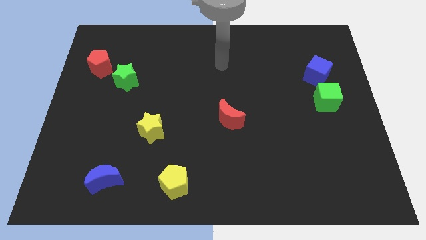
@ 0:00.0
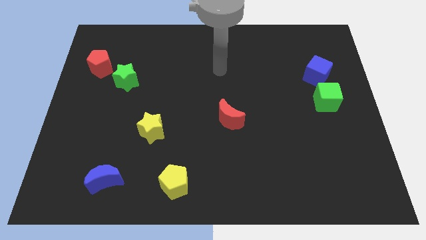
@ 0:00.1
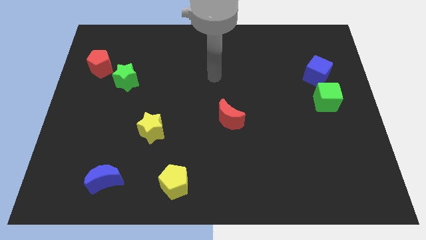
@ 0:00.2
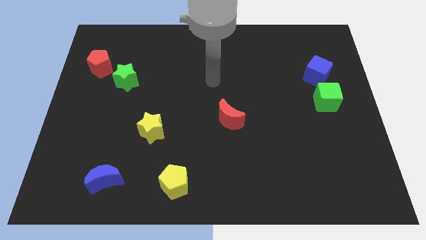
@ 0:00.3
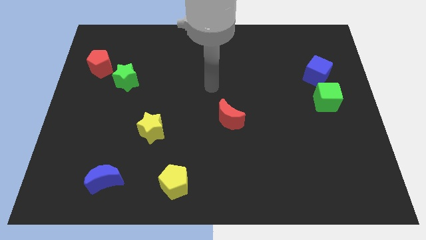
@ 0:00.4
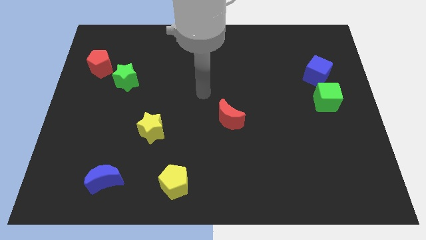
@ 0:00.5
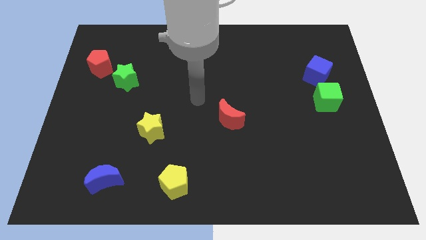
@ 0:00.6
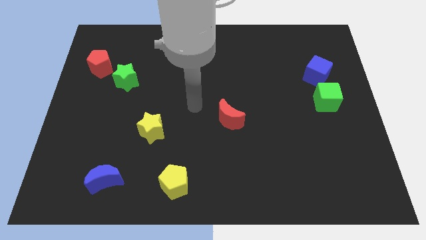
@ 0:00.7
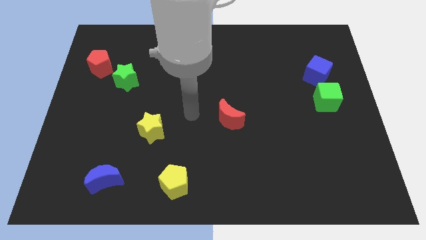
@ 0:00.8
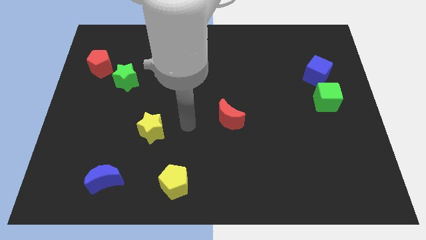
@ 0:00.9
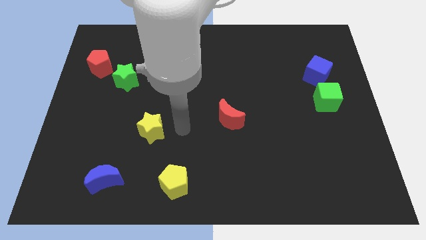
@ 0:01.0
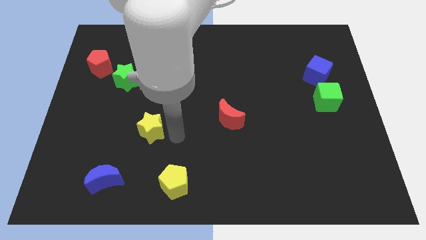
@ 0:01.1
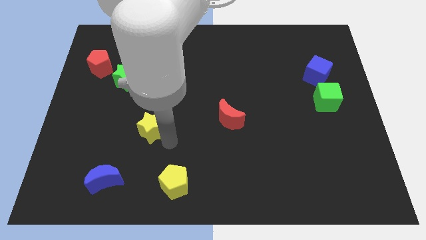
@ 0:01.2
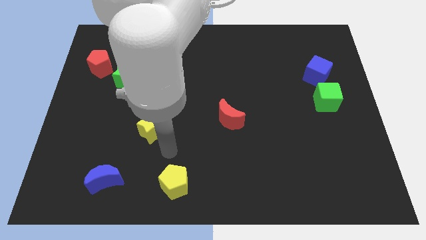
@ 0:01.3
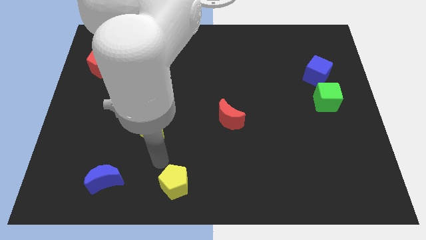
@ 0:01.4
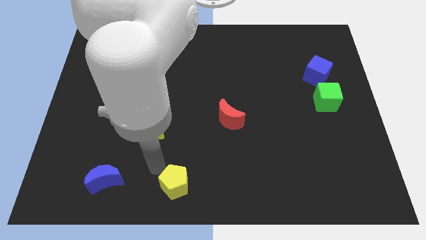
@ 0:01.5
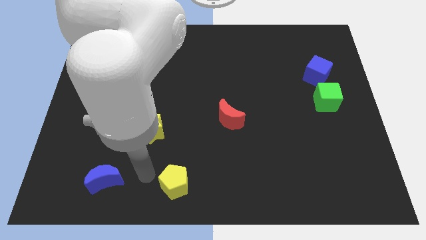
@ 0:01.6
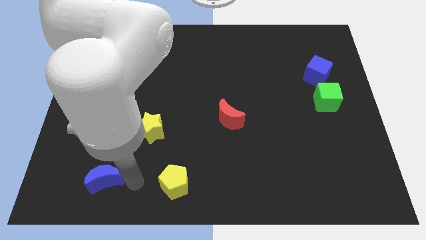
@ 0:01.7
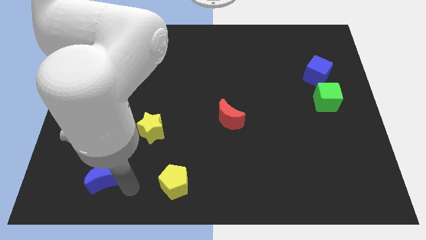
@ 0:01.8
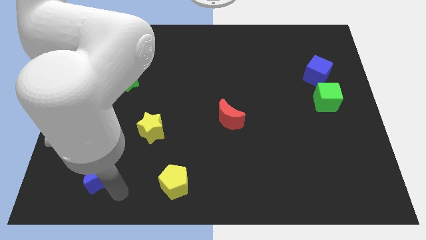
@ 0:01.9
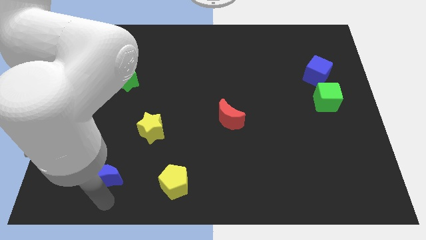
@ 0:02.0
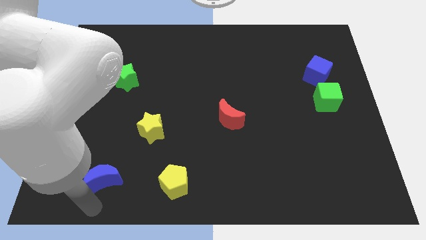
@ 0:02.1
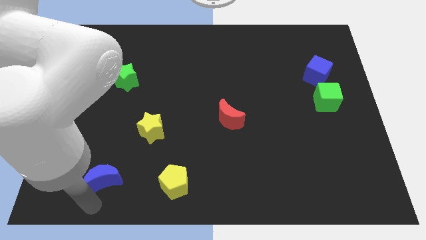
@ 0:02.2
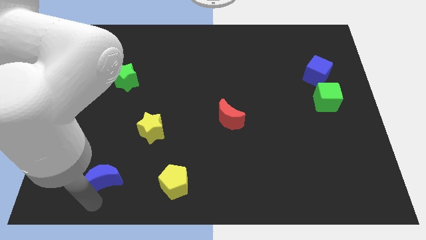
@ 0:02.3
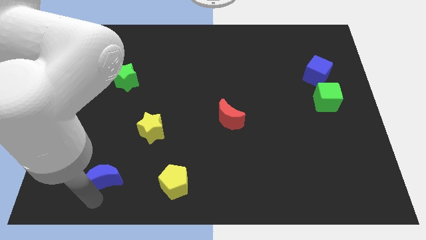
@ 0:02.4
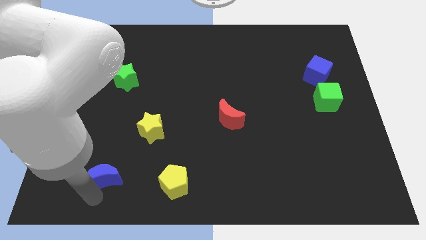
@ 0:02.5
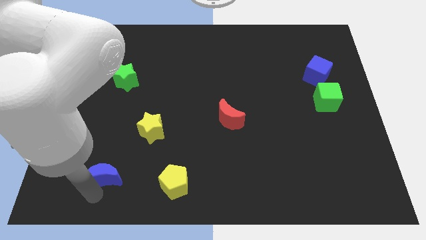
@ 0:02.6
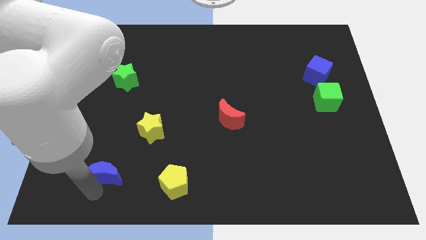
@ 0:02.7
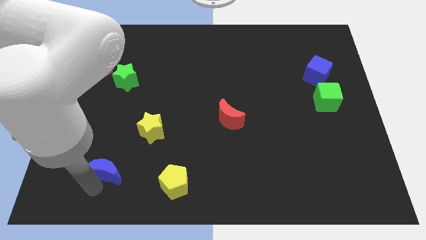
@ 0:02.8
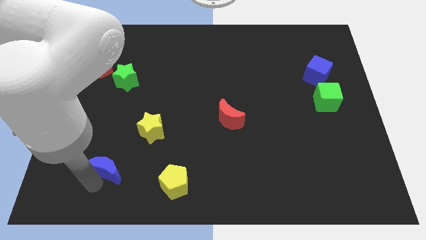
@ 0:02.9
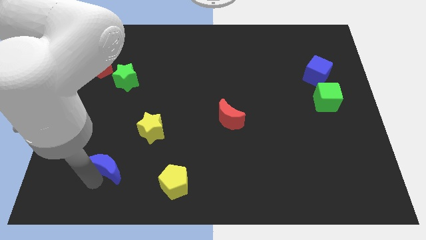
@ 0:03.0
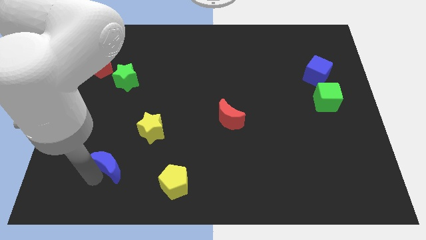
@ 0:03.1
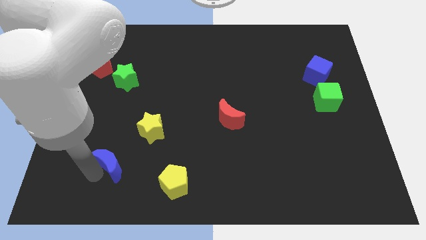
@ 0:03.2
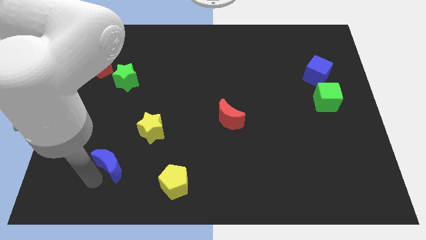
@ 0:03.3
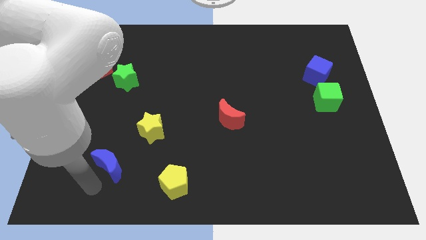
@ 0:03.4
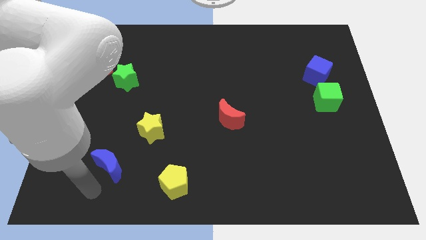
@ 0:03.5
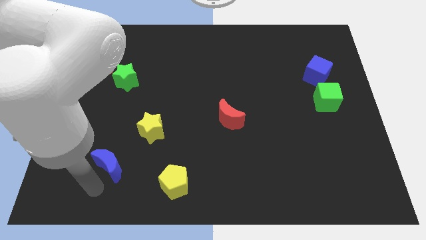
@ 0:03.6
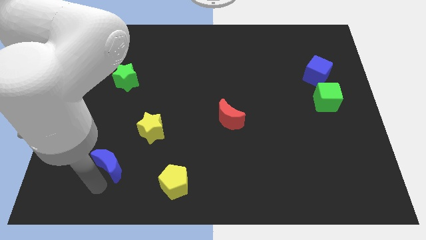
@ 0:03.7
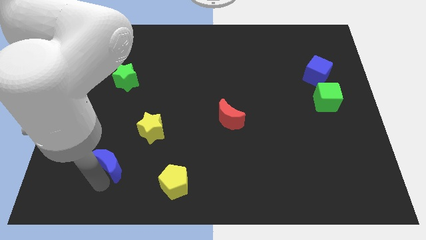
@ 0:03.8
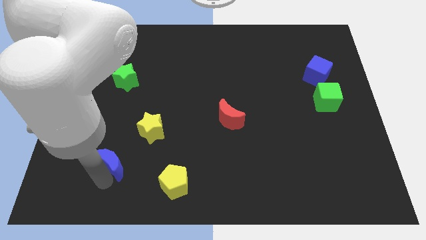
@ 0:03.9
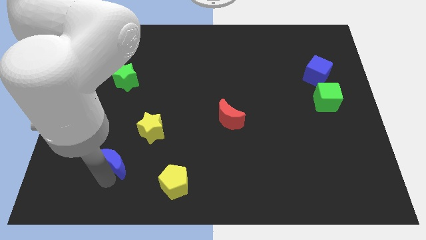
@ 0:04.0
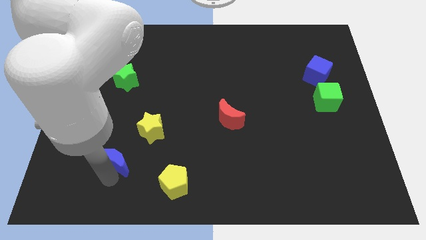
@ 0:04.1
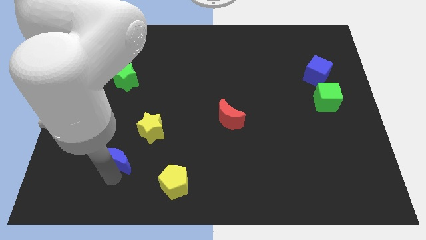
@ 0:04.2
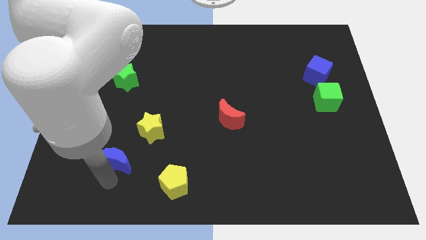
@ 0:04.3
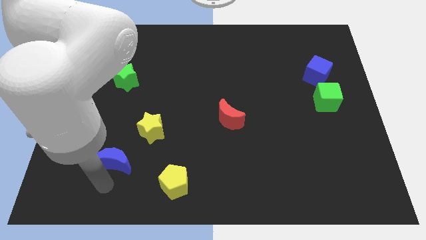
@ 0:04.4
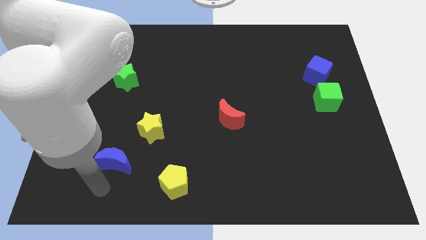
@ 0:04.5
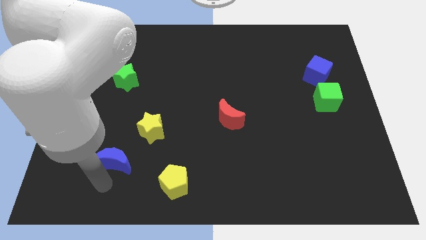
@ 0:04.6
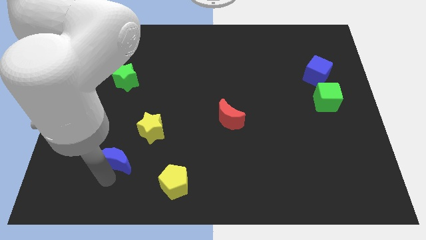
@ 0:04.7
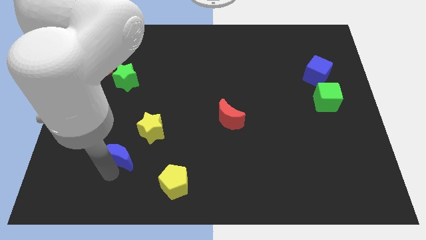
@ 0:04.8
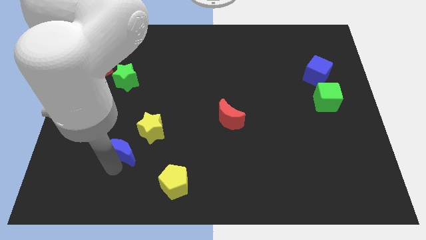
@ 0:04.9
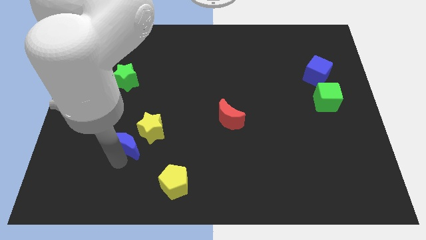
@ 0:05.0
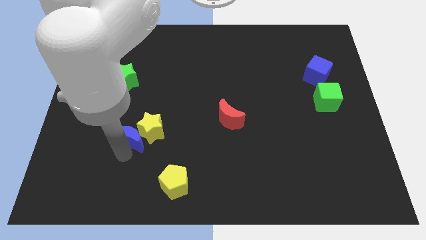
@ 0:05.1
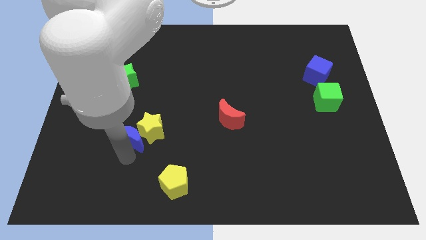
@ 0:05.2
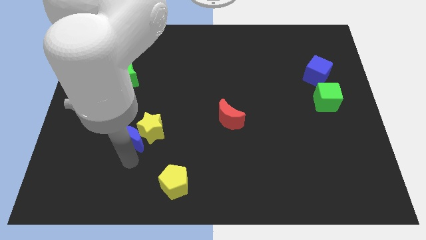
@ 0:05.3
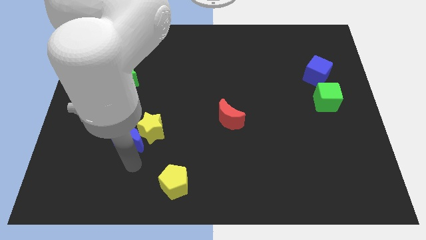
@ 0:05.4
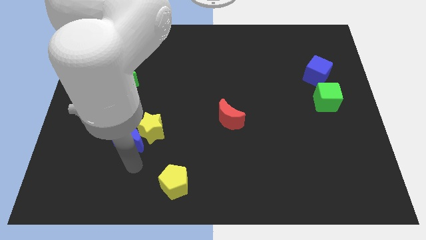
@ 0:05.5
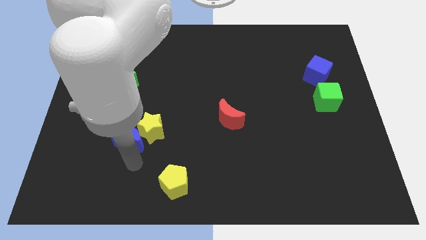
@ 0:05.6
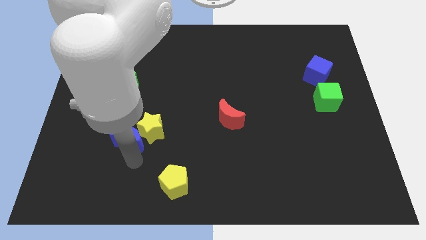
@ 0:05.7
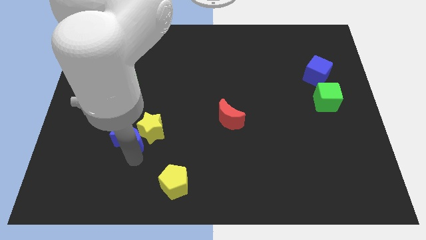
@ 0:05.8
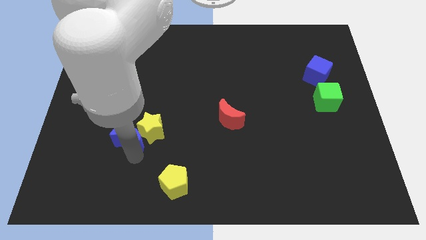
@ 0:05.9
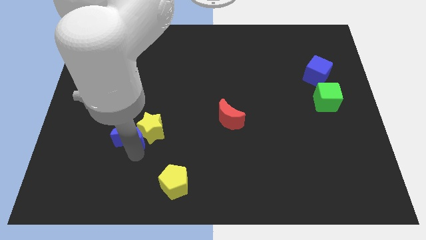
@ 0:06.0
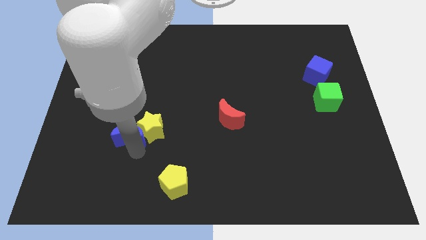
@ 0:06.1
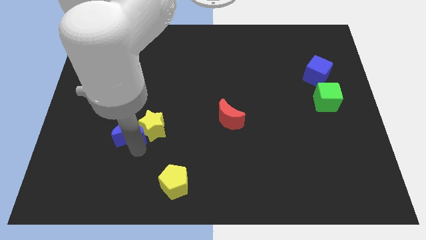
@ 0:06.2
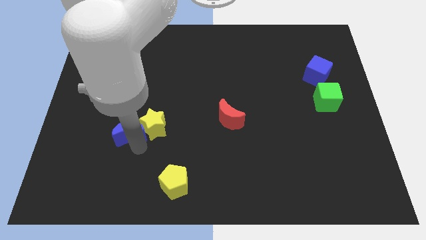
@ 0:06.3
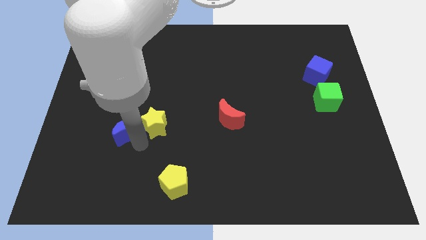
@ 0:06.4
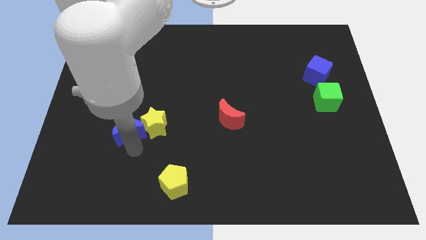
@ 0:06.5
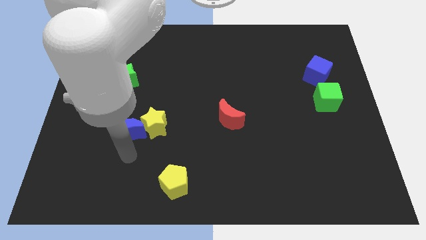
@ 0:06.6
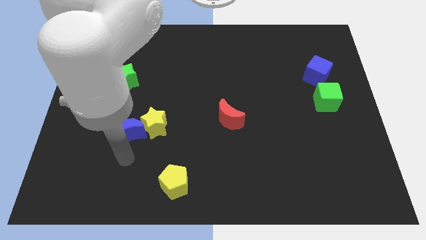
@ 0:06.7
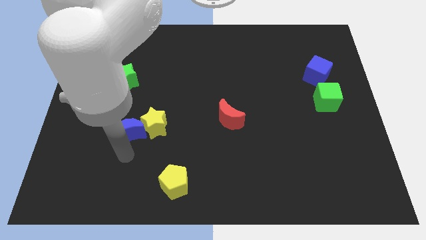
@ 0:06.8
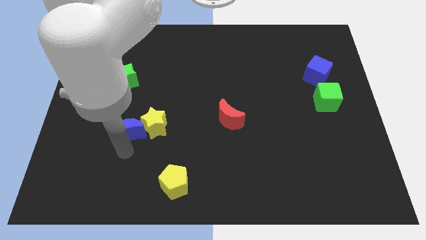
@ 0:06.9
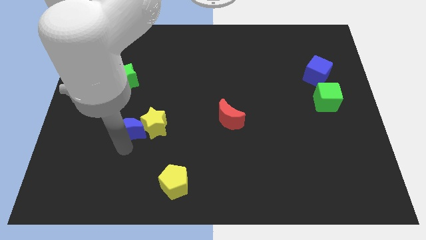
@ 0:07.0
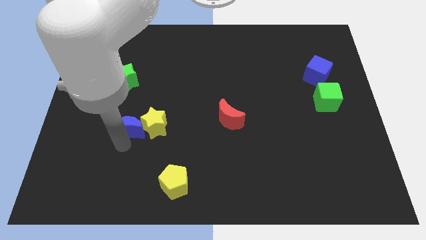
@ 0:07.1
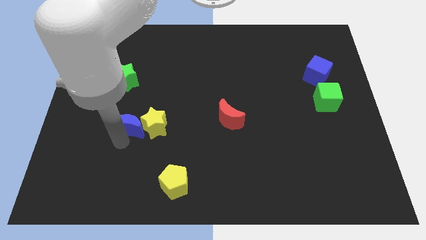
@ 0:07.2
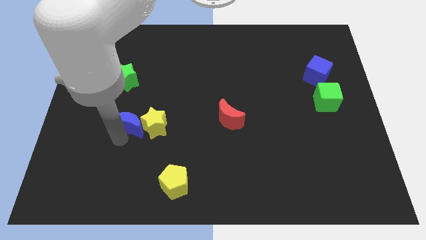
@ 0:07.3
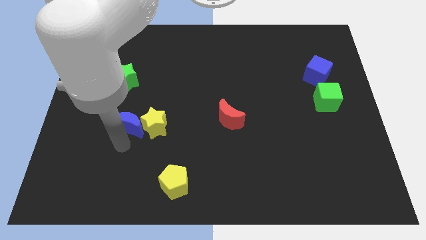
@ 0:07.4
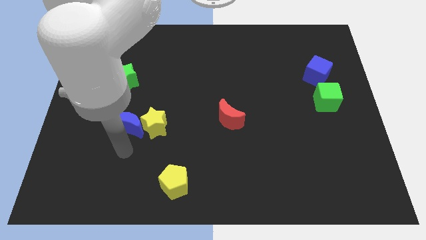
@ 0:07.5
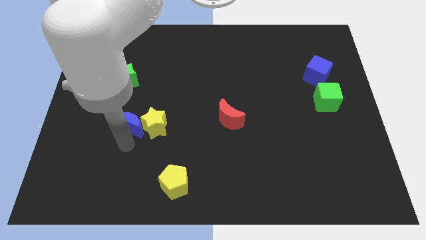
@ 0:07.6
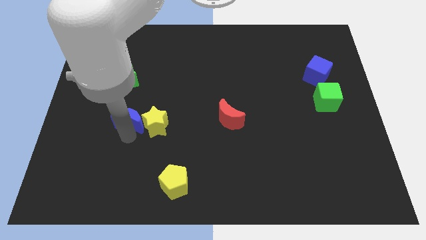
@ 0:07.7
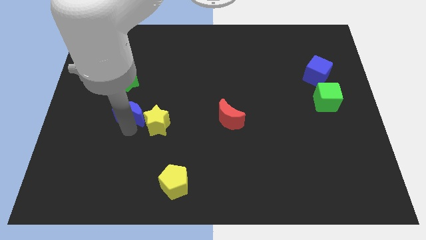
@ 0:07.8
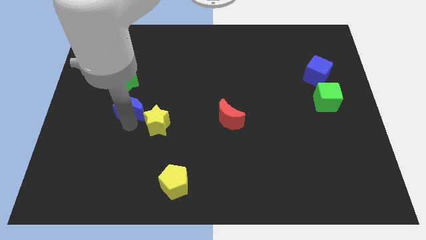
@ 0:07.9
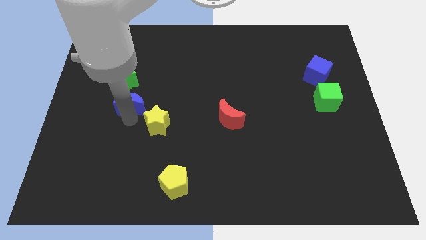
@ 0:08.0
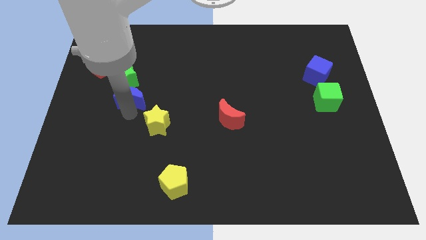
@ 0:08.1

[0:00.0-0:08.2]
push the blue moon upwards
